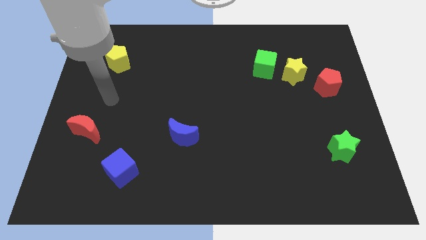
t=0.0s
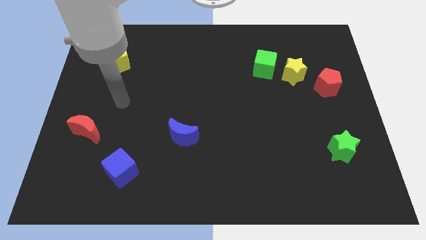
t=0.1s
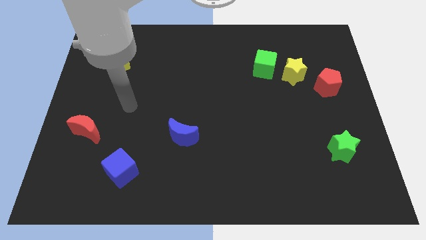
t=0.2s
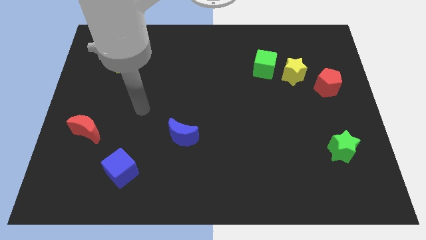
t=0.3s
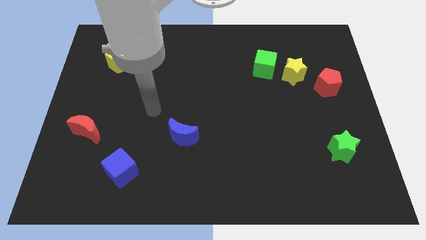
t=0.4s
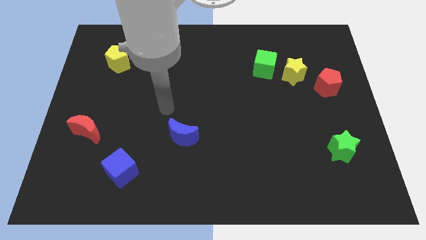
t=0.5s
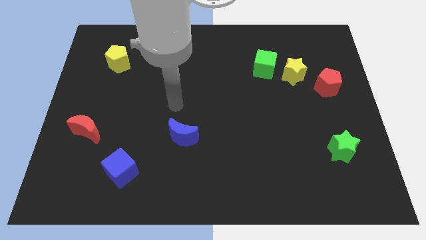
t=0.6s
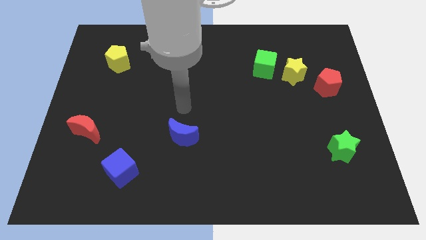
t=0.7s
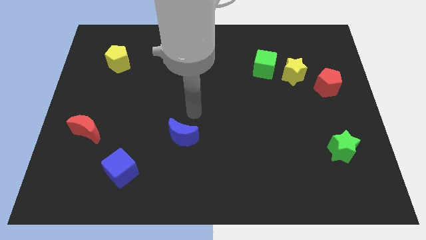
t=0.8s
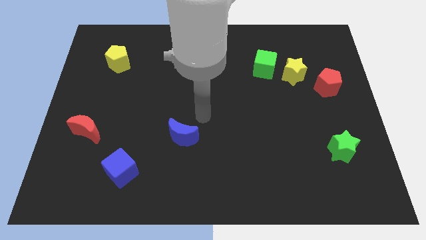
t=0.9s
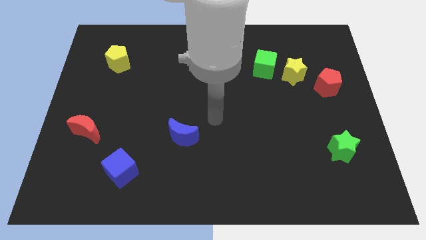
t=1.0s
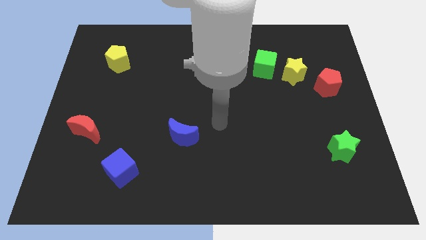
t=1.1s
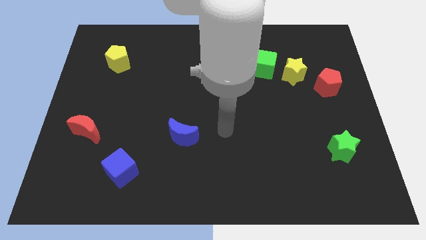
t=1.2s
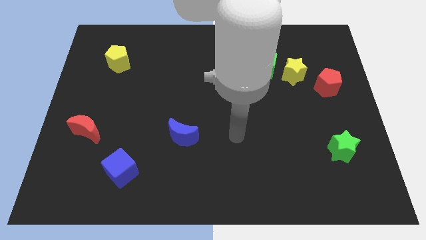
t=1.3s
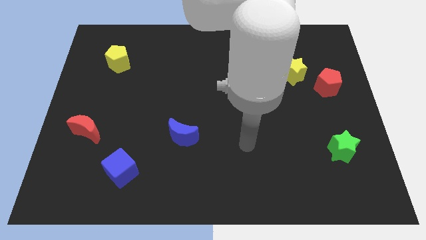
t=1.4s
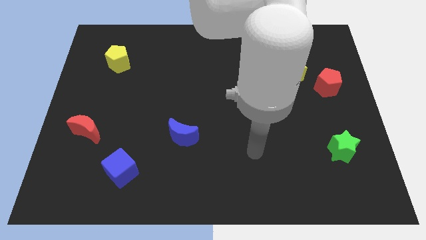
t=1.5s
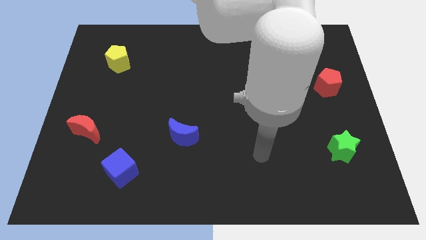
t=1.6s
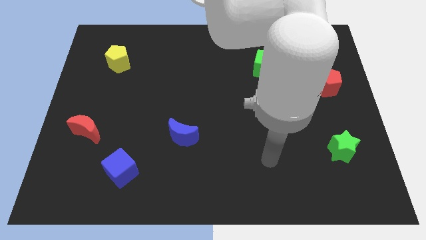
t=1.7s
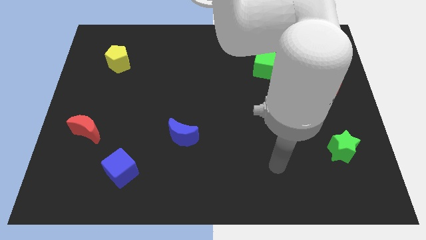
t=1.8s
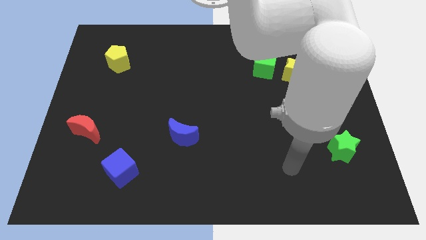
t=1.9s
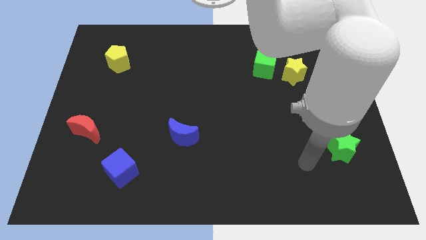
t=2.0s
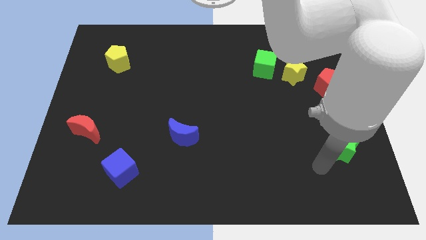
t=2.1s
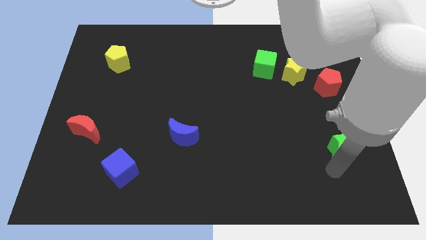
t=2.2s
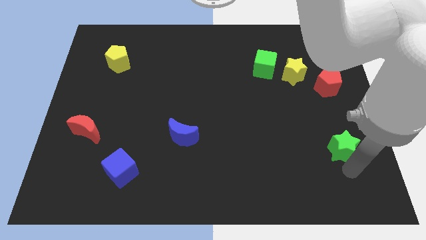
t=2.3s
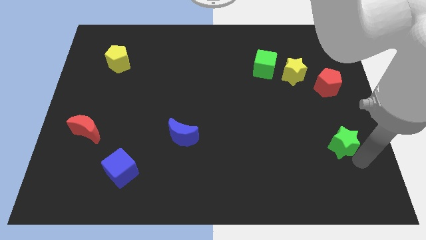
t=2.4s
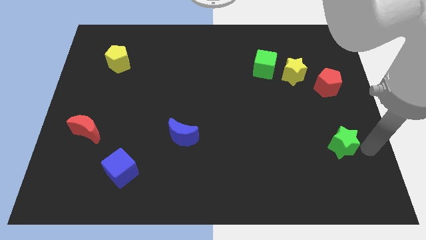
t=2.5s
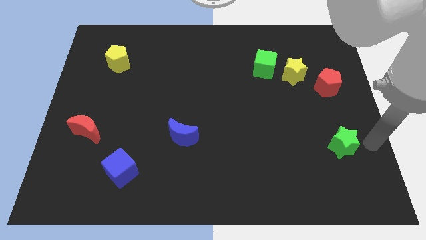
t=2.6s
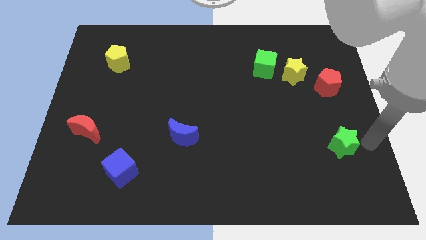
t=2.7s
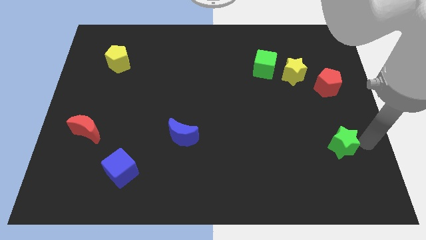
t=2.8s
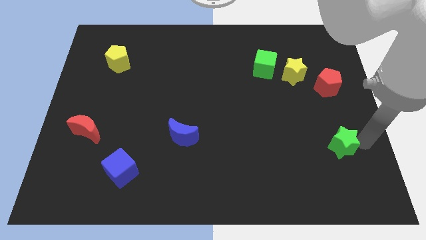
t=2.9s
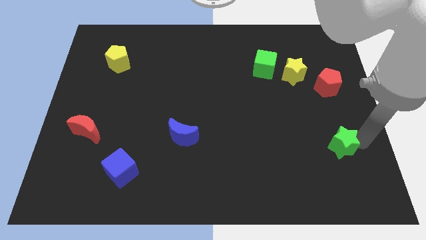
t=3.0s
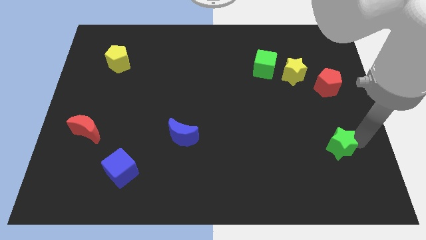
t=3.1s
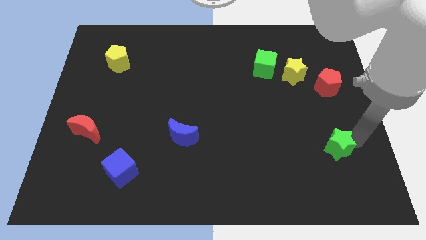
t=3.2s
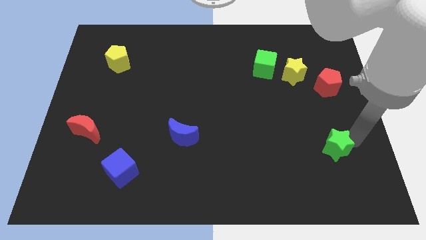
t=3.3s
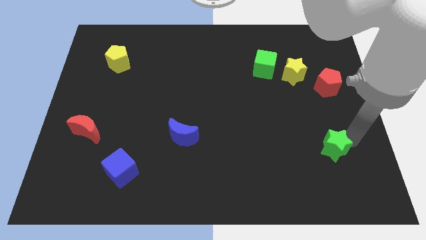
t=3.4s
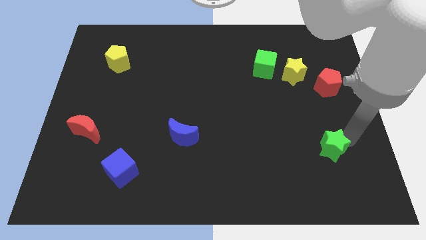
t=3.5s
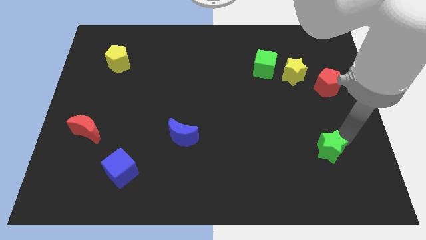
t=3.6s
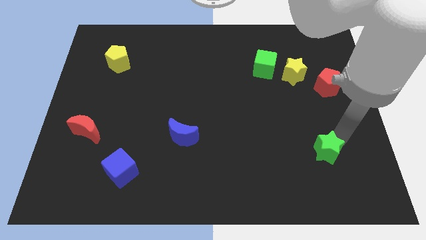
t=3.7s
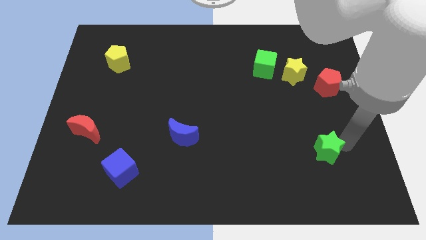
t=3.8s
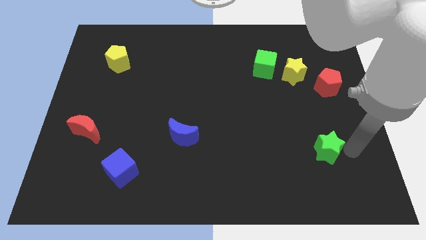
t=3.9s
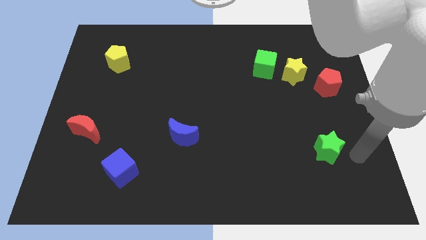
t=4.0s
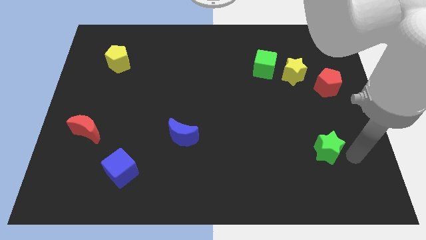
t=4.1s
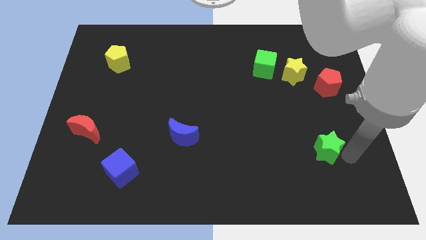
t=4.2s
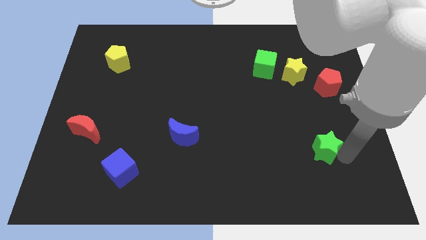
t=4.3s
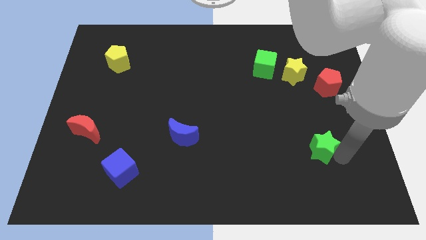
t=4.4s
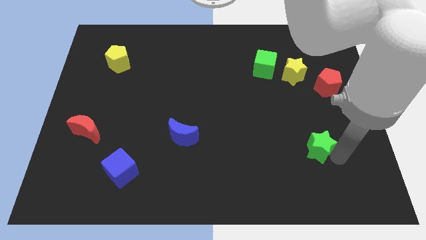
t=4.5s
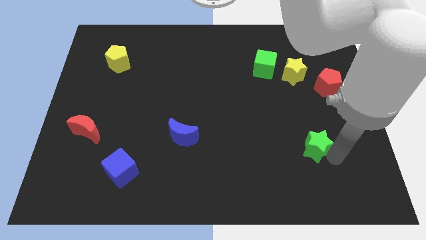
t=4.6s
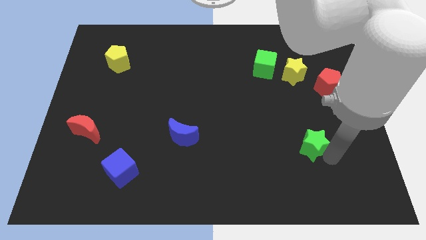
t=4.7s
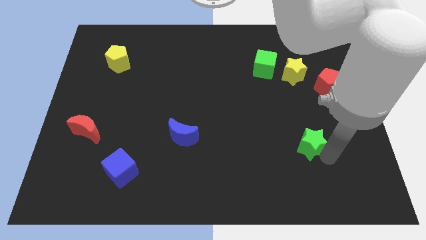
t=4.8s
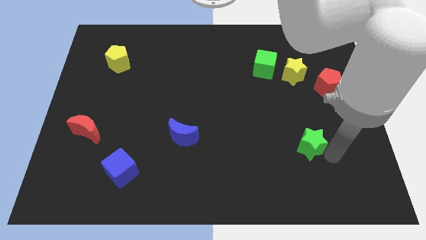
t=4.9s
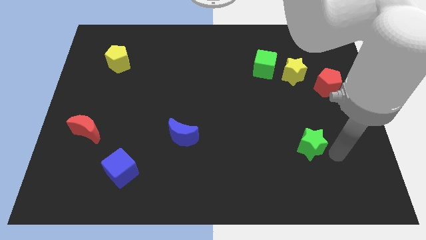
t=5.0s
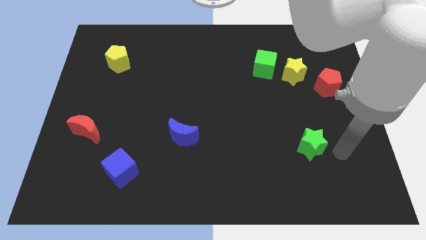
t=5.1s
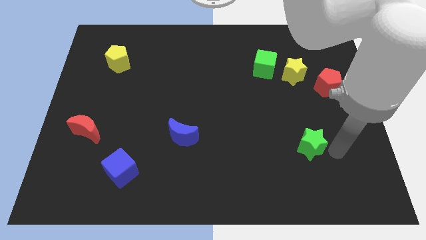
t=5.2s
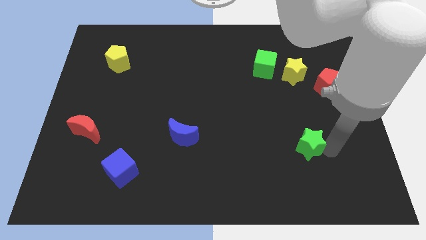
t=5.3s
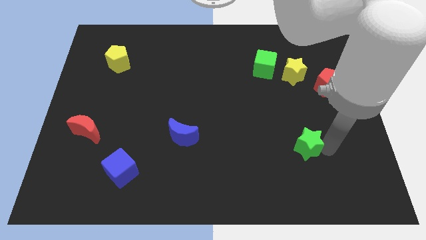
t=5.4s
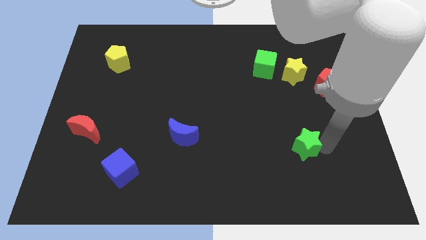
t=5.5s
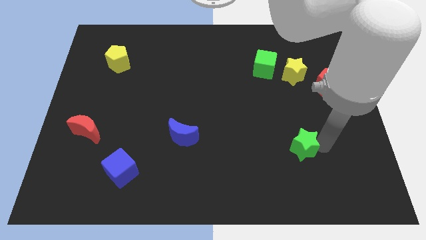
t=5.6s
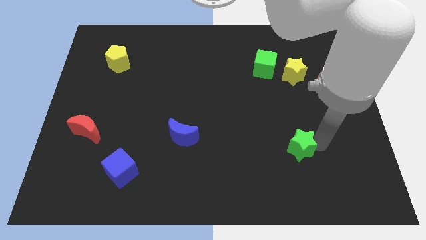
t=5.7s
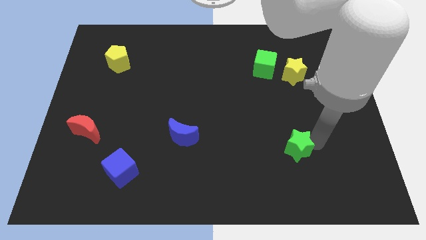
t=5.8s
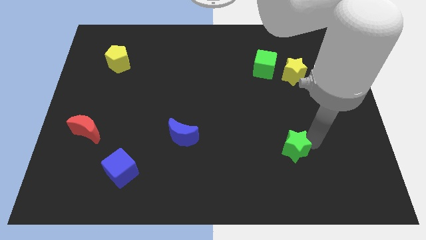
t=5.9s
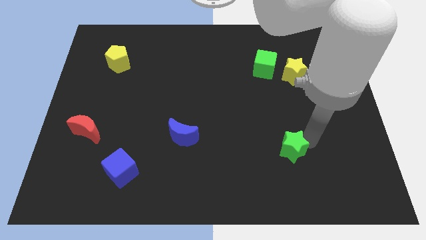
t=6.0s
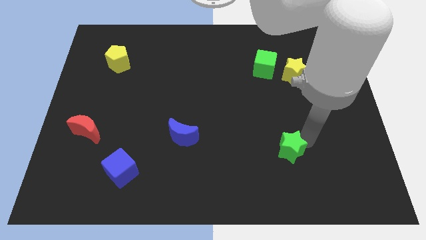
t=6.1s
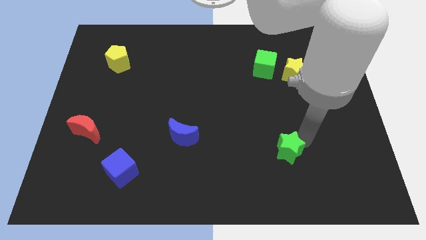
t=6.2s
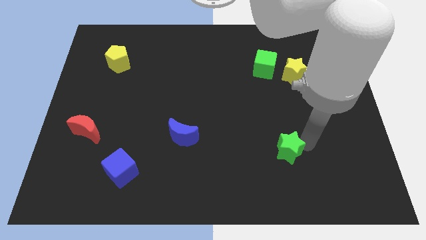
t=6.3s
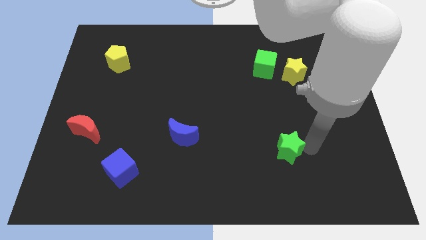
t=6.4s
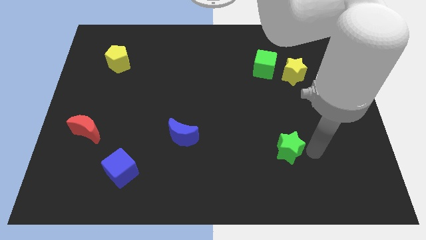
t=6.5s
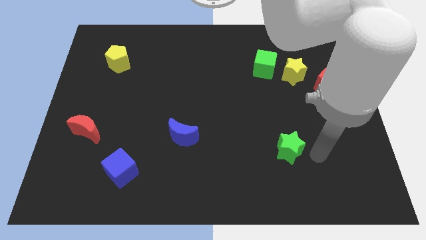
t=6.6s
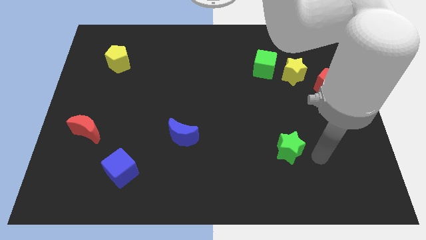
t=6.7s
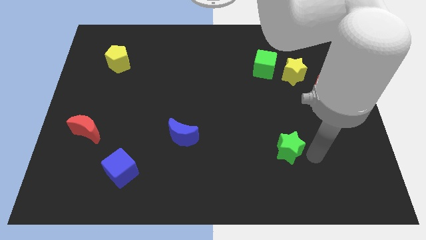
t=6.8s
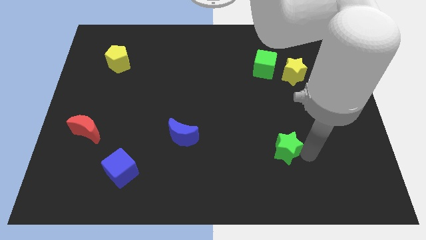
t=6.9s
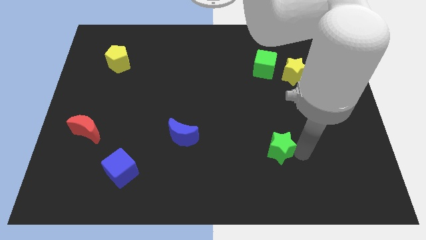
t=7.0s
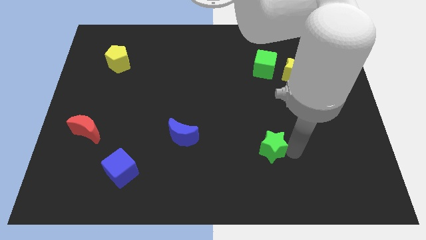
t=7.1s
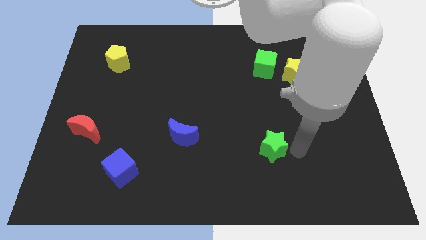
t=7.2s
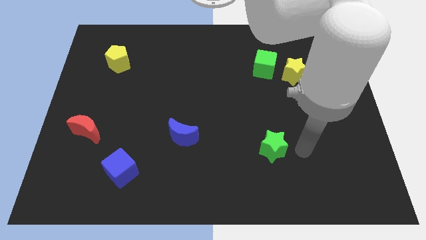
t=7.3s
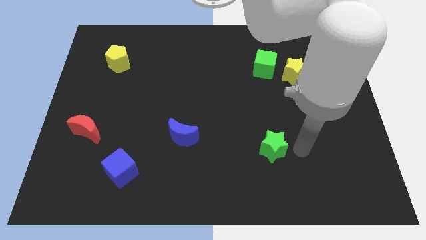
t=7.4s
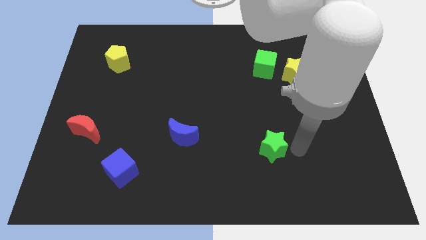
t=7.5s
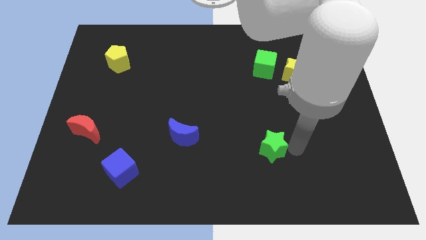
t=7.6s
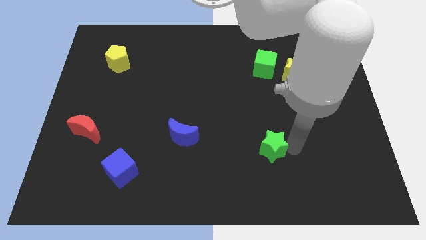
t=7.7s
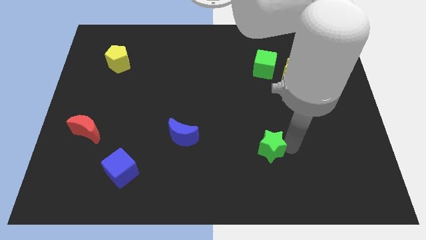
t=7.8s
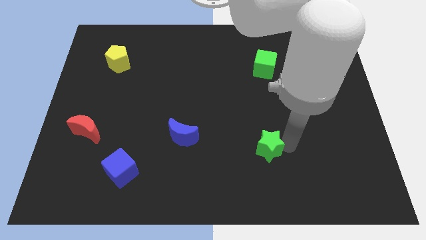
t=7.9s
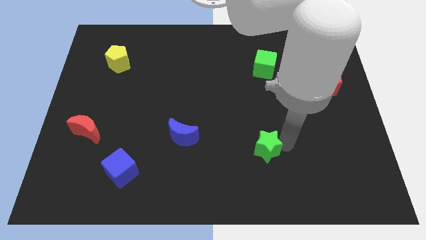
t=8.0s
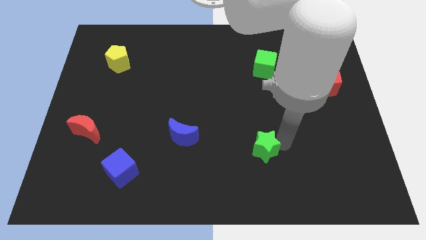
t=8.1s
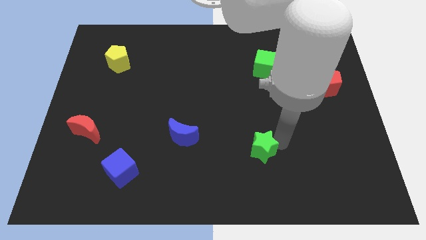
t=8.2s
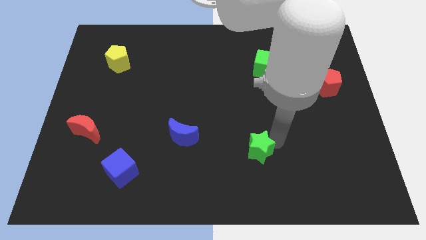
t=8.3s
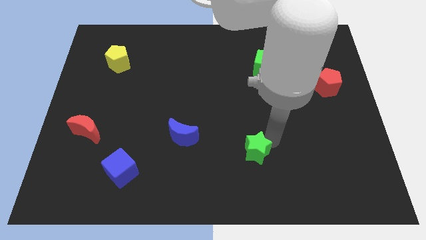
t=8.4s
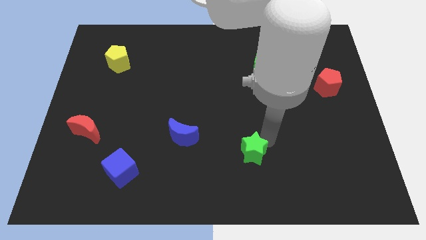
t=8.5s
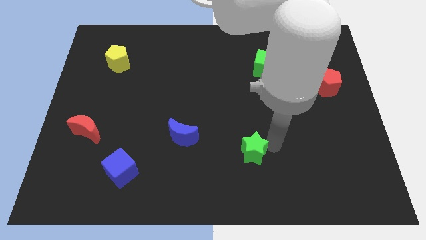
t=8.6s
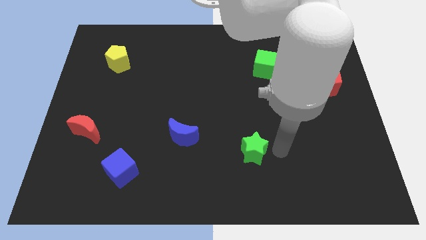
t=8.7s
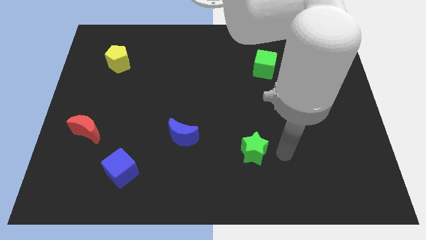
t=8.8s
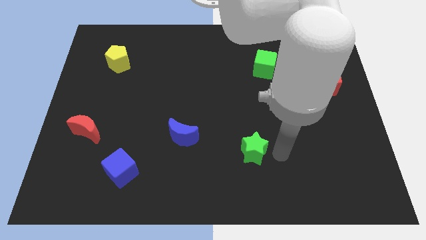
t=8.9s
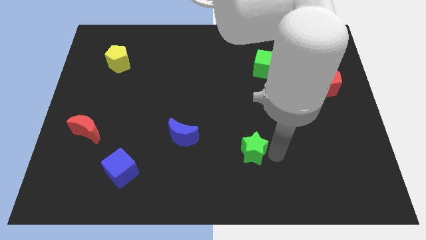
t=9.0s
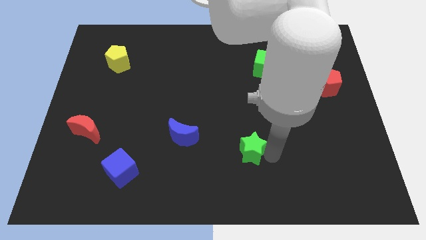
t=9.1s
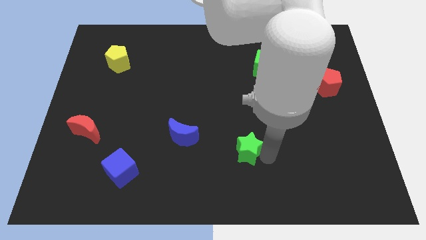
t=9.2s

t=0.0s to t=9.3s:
slide the green star to the left
